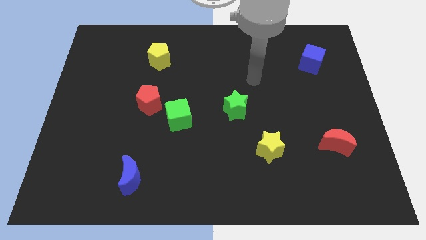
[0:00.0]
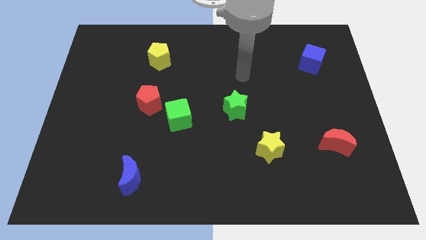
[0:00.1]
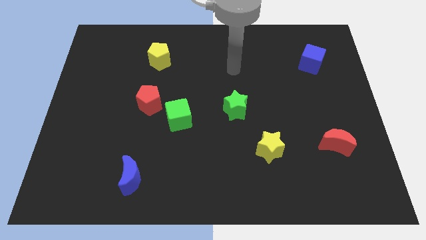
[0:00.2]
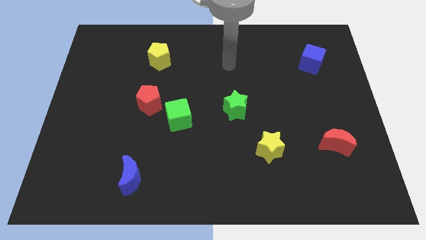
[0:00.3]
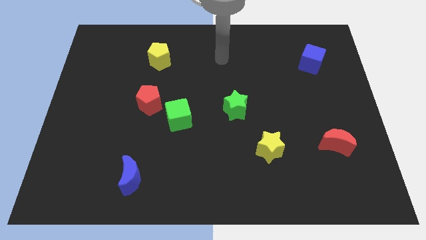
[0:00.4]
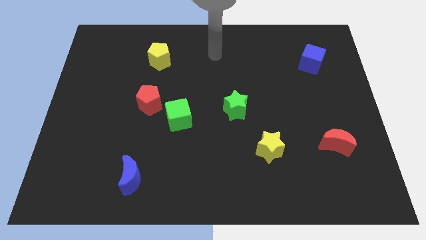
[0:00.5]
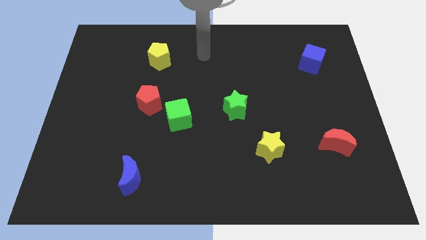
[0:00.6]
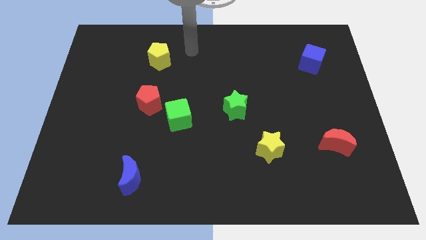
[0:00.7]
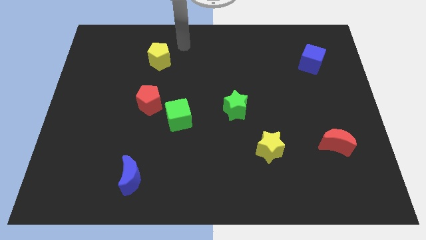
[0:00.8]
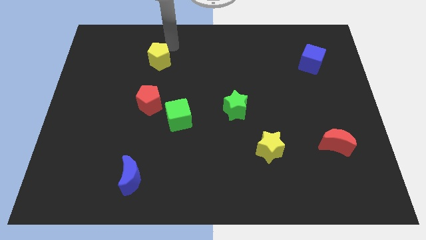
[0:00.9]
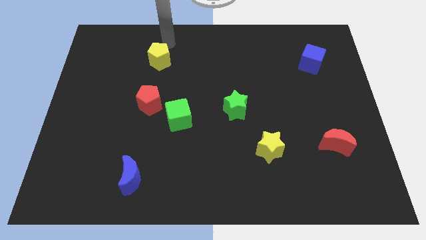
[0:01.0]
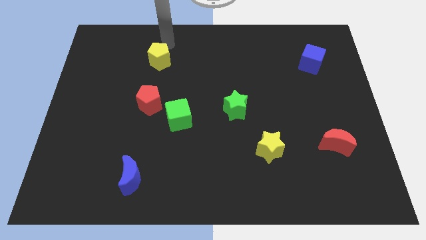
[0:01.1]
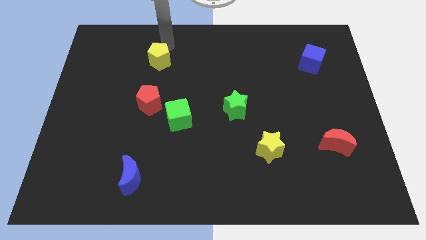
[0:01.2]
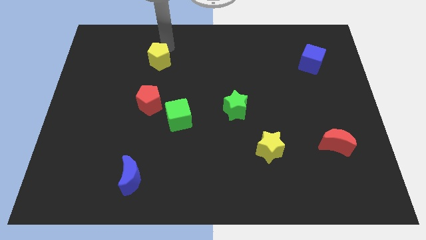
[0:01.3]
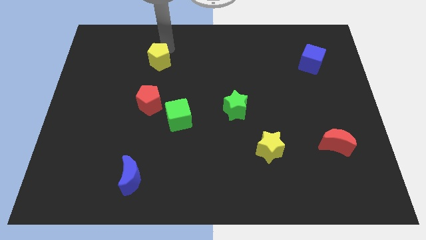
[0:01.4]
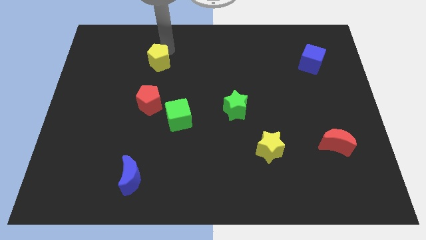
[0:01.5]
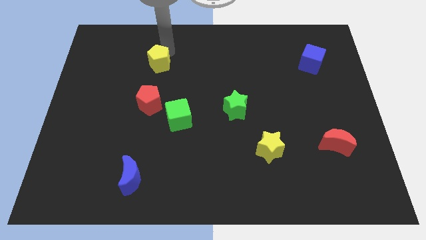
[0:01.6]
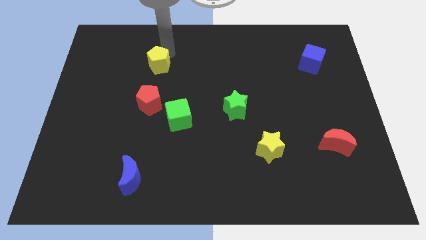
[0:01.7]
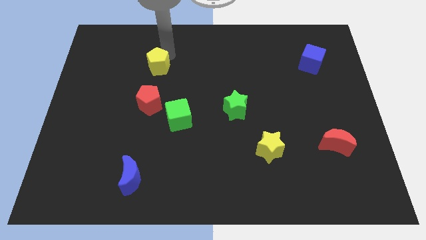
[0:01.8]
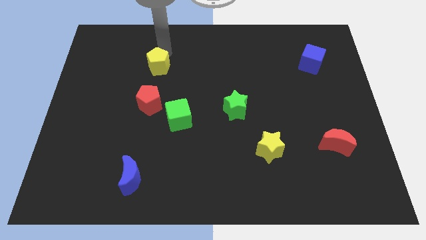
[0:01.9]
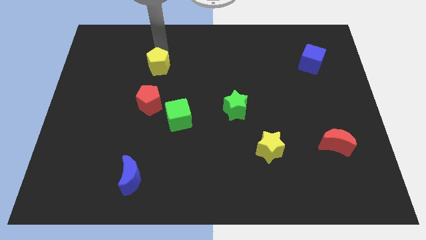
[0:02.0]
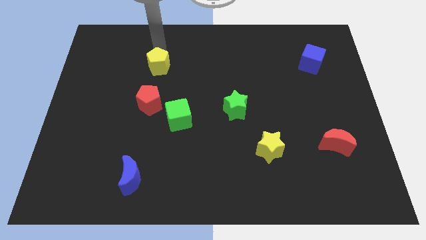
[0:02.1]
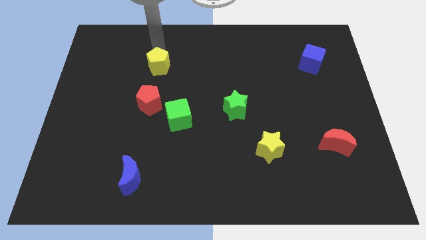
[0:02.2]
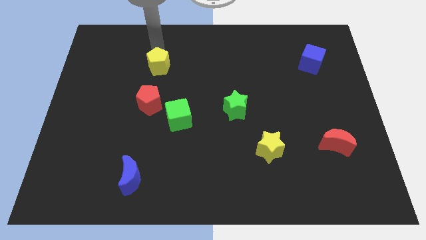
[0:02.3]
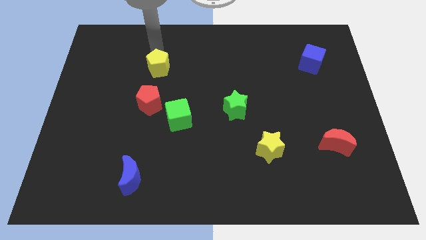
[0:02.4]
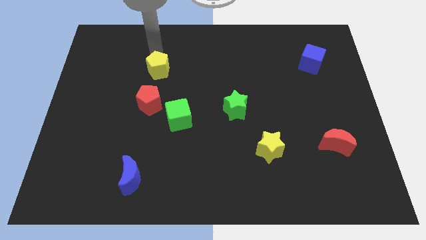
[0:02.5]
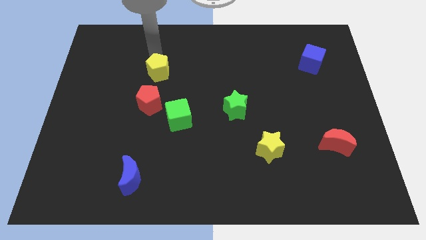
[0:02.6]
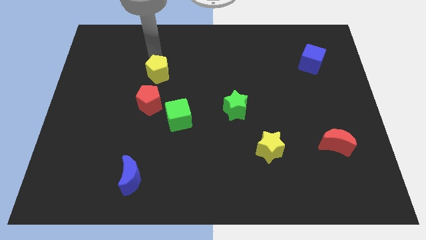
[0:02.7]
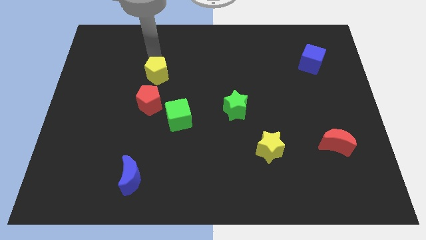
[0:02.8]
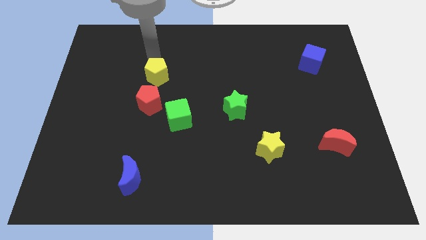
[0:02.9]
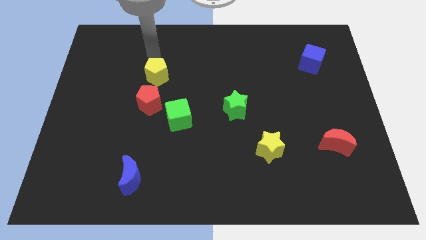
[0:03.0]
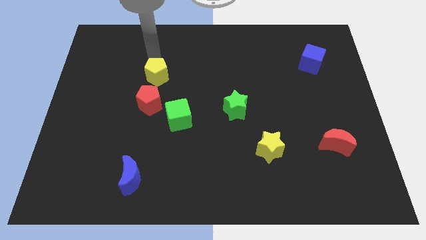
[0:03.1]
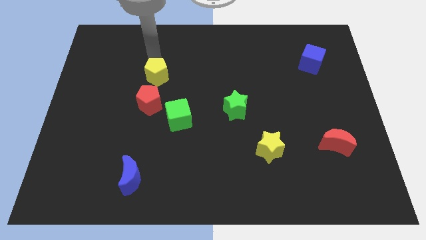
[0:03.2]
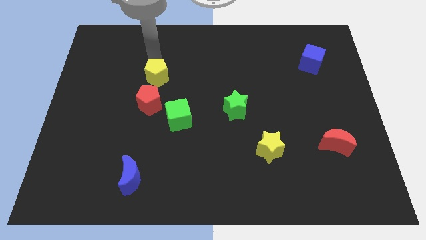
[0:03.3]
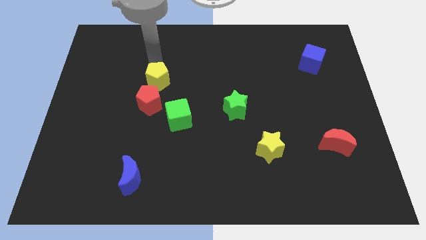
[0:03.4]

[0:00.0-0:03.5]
slightly push the yellow pentagon down

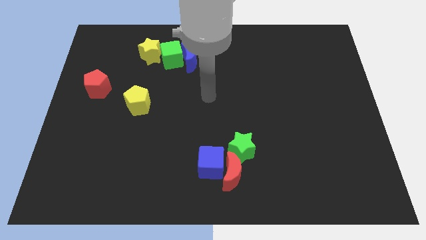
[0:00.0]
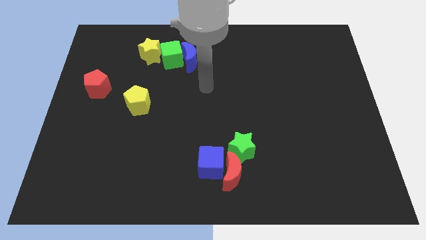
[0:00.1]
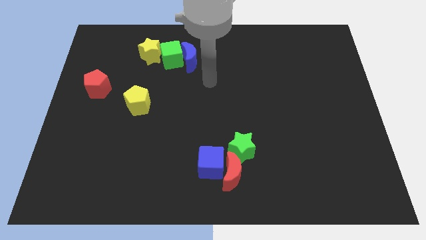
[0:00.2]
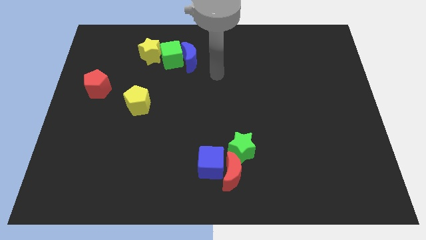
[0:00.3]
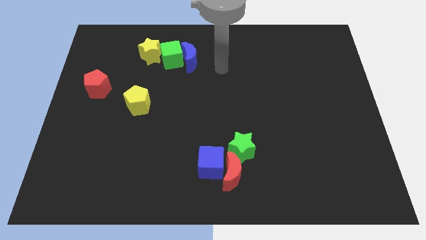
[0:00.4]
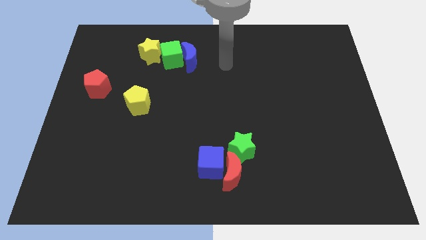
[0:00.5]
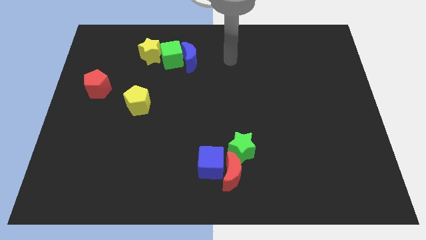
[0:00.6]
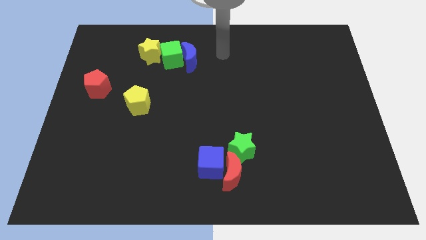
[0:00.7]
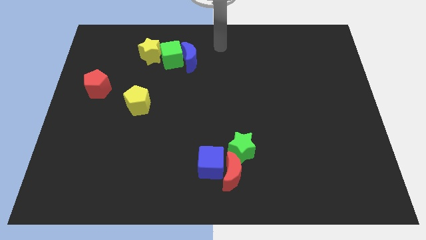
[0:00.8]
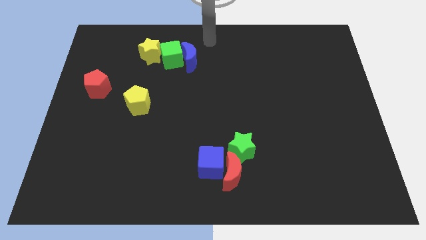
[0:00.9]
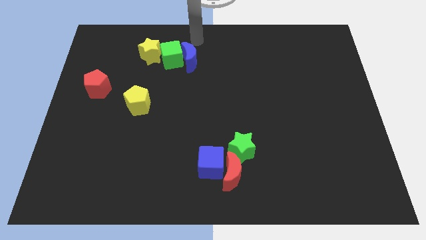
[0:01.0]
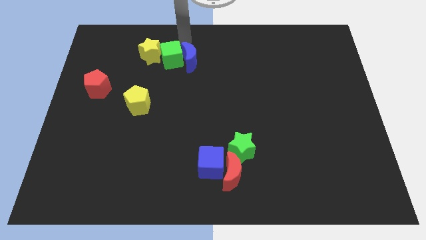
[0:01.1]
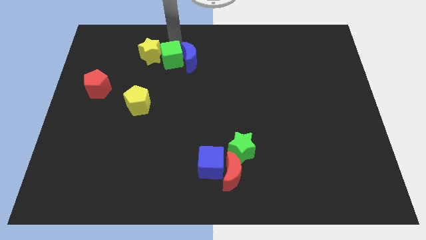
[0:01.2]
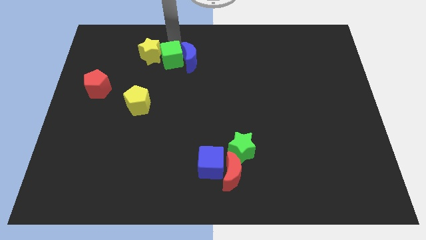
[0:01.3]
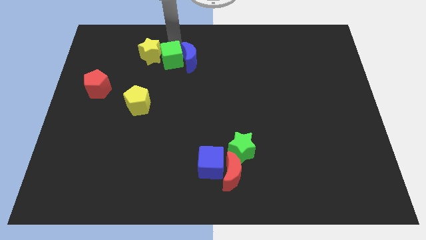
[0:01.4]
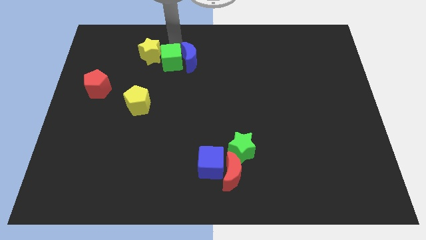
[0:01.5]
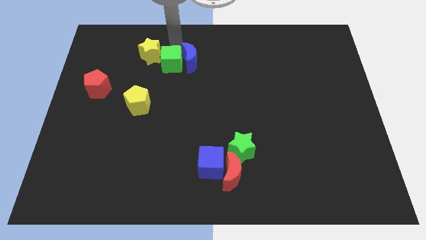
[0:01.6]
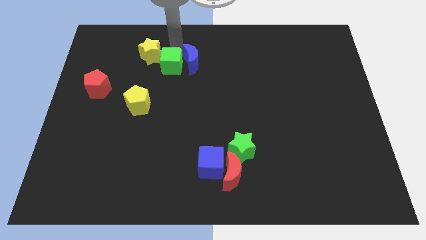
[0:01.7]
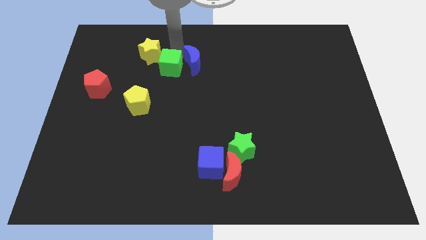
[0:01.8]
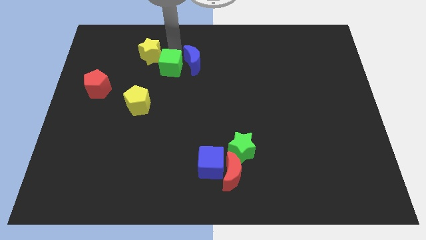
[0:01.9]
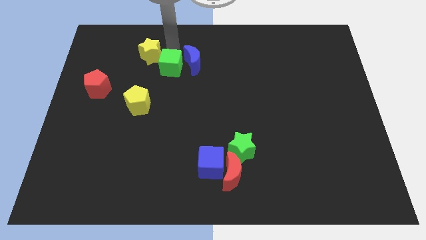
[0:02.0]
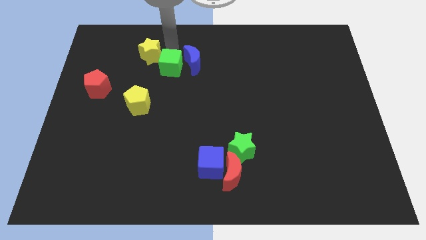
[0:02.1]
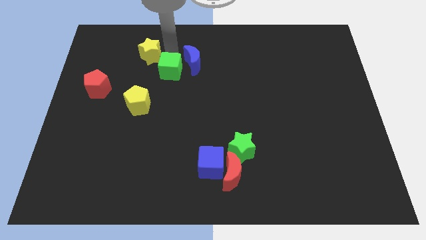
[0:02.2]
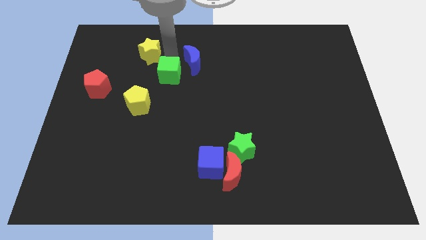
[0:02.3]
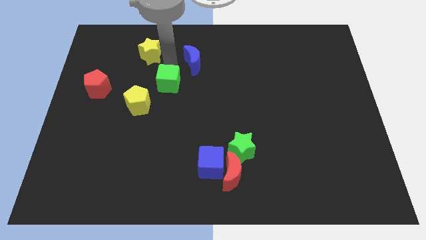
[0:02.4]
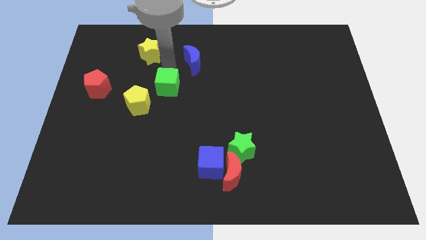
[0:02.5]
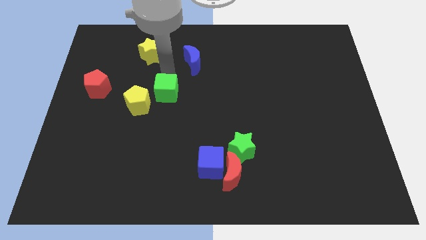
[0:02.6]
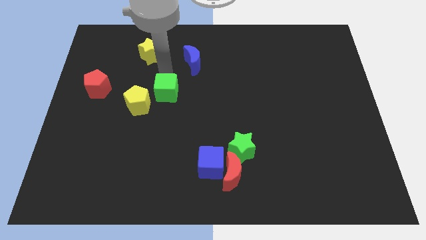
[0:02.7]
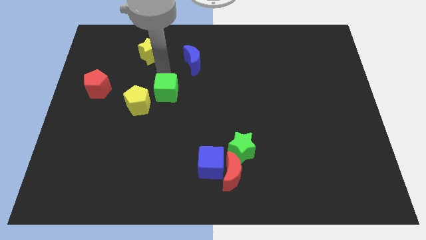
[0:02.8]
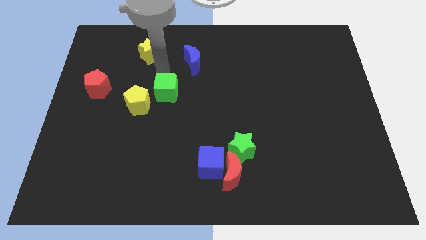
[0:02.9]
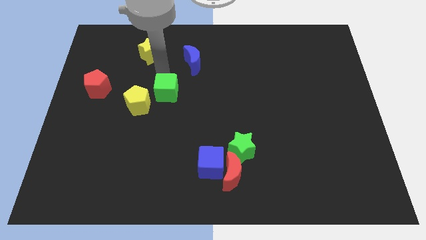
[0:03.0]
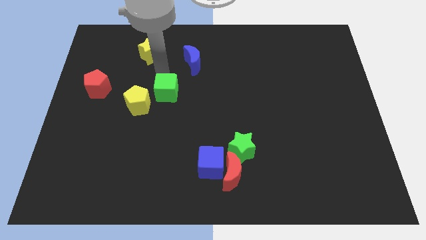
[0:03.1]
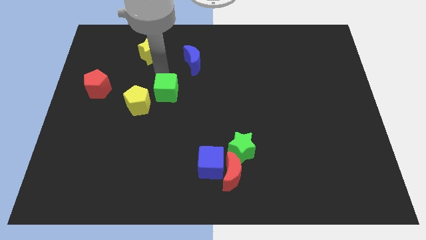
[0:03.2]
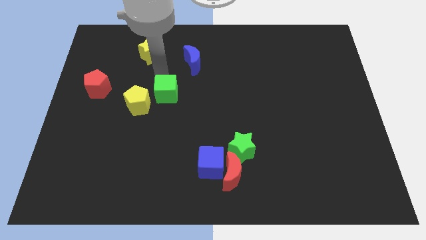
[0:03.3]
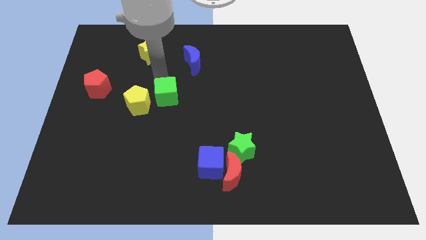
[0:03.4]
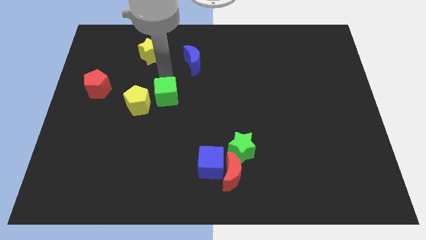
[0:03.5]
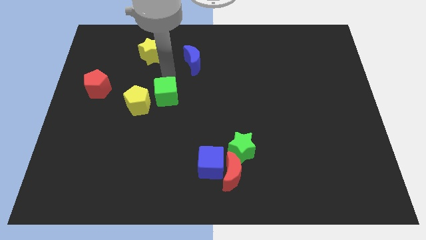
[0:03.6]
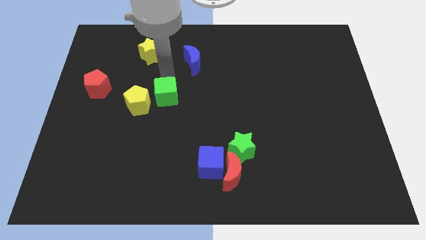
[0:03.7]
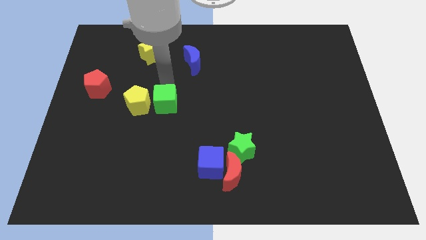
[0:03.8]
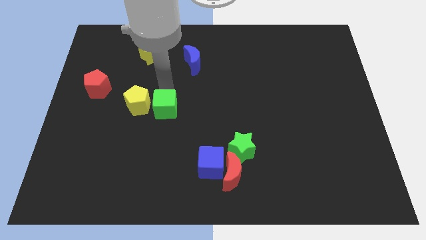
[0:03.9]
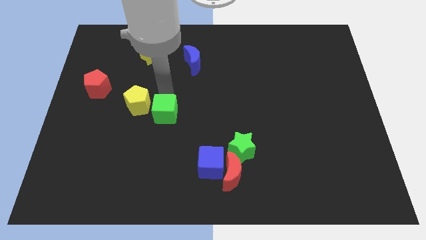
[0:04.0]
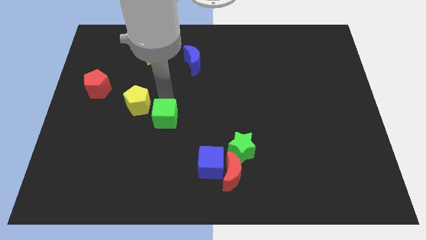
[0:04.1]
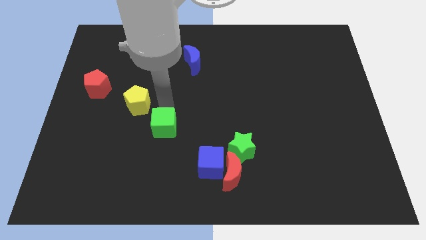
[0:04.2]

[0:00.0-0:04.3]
slide the green cube down

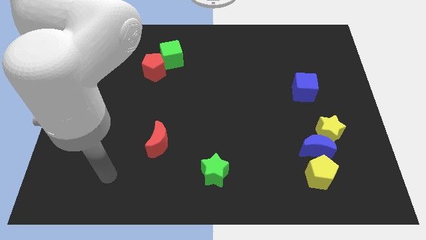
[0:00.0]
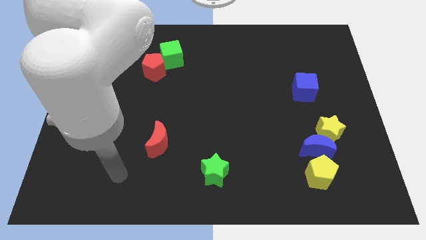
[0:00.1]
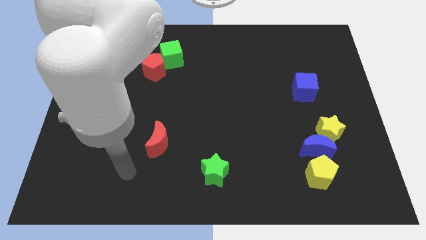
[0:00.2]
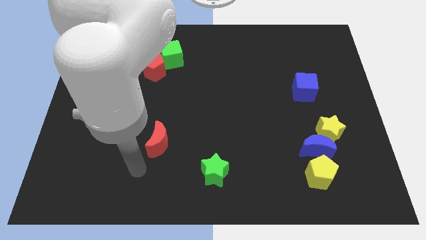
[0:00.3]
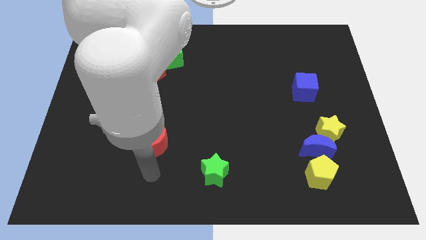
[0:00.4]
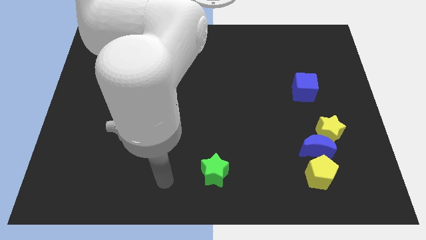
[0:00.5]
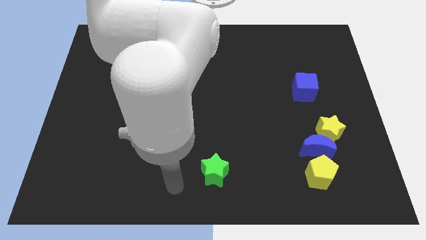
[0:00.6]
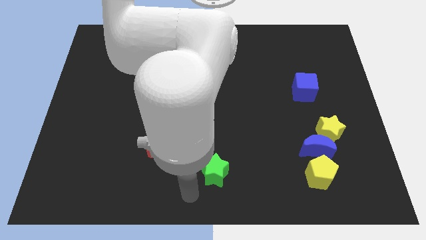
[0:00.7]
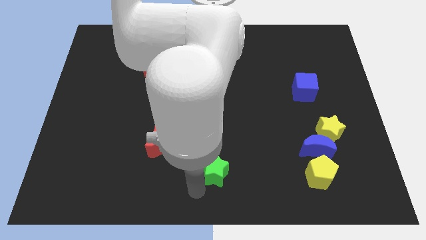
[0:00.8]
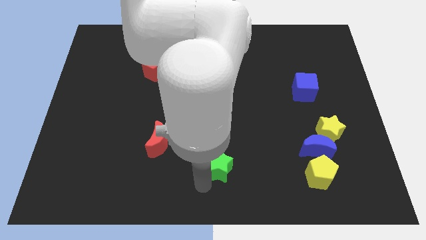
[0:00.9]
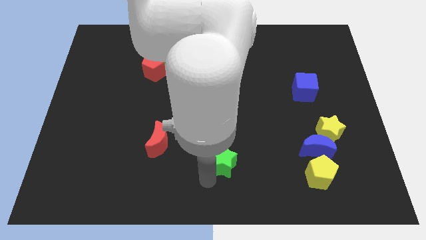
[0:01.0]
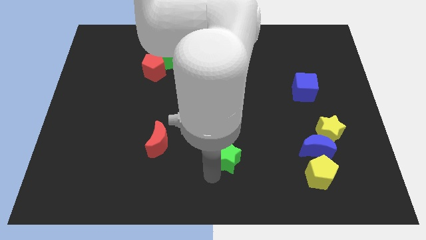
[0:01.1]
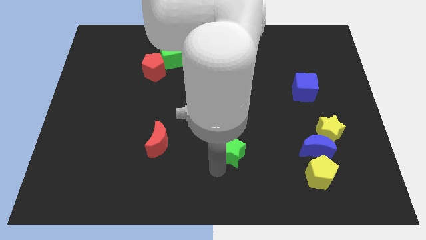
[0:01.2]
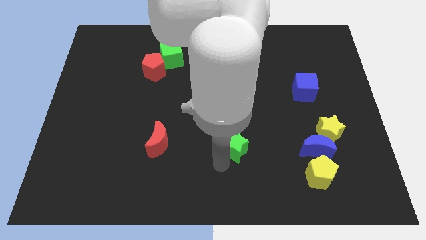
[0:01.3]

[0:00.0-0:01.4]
push the green star upwards and to the right slightly
